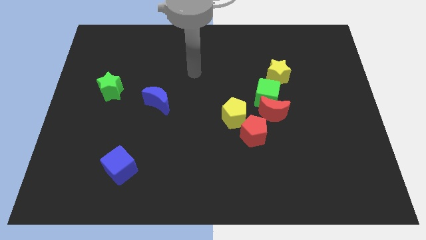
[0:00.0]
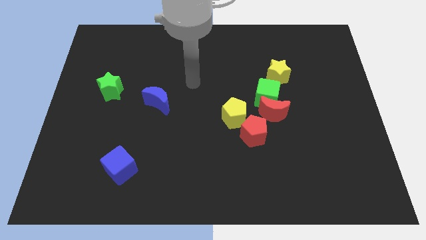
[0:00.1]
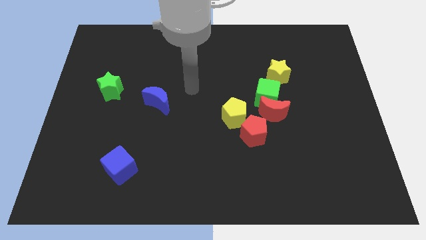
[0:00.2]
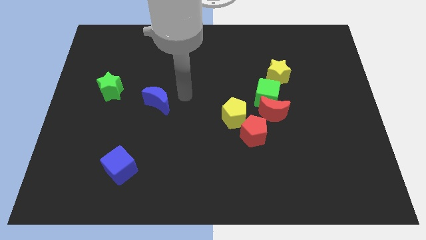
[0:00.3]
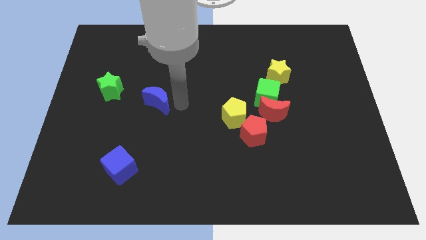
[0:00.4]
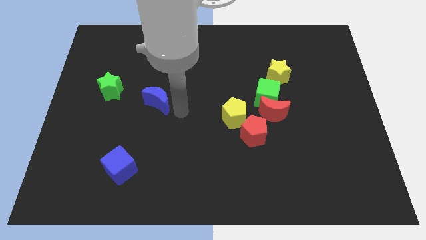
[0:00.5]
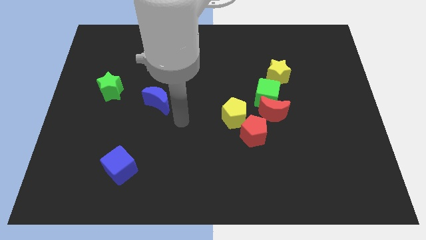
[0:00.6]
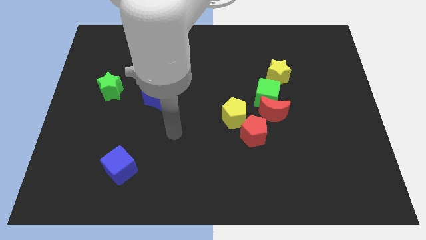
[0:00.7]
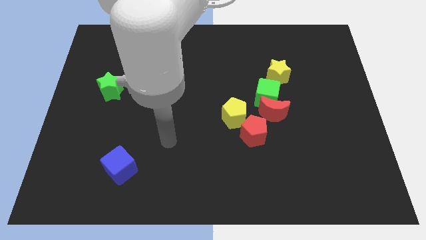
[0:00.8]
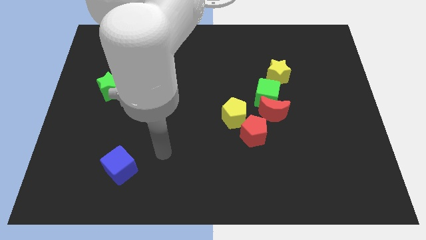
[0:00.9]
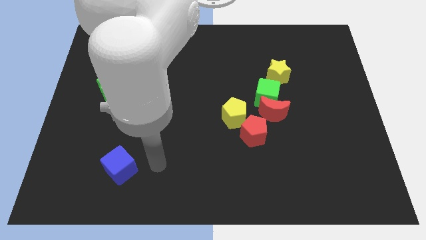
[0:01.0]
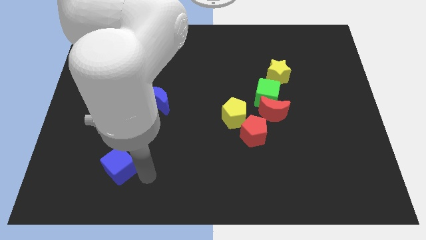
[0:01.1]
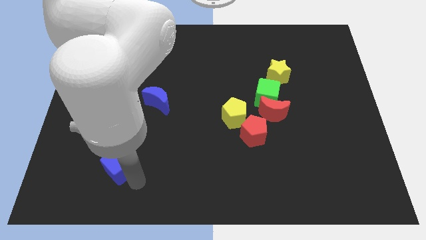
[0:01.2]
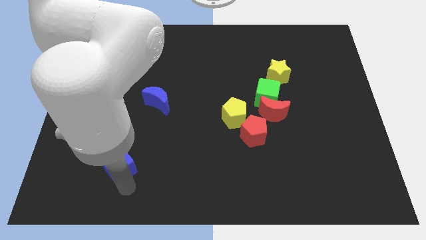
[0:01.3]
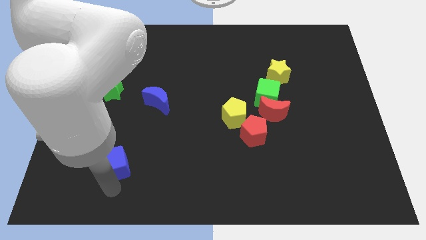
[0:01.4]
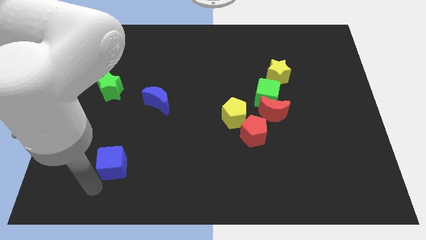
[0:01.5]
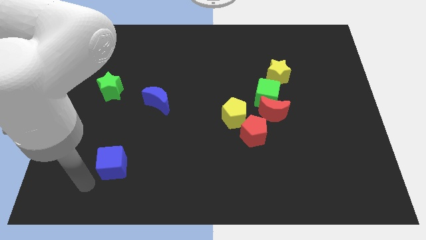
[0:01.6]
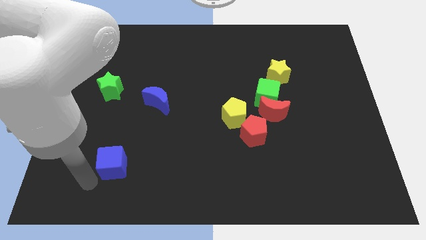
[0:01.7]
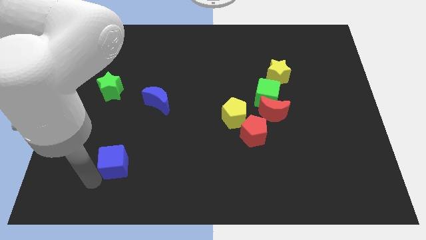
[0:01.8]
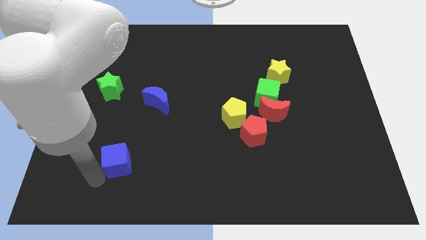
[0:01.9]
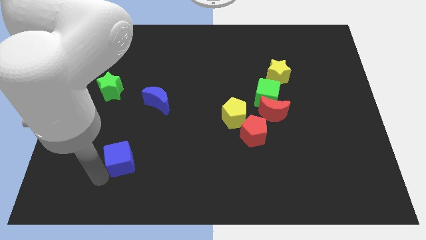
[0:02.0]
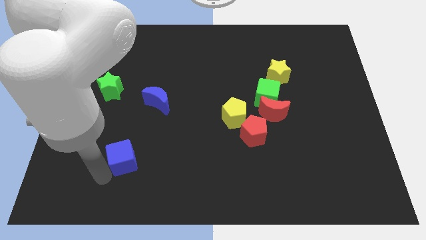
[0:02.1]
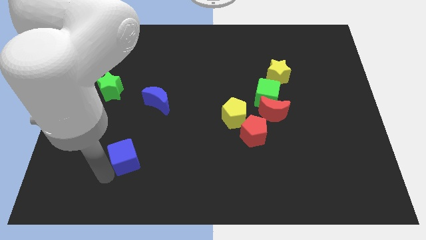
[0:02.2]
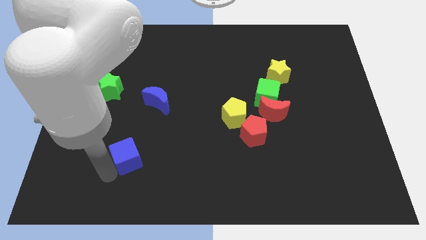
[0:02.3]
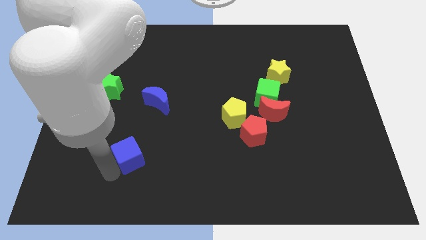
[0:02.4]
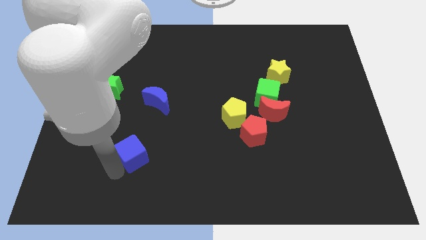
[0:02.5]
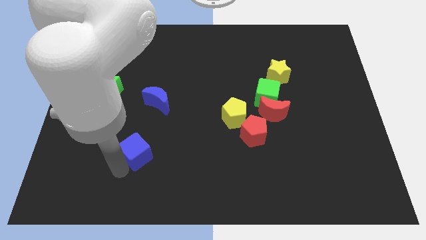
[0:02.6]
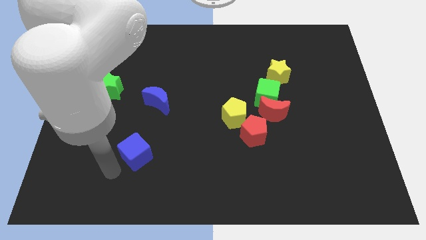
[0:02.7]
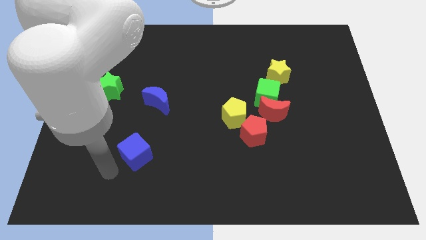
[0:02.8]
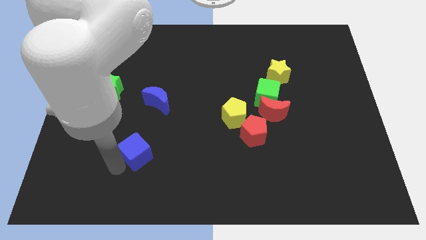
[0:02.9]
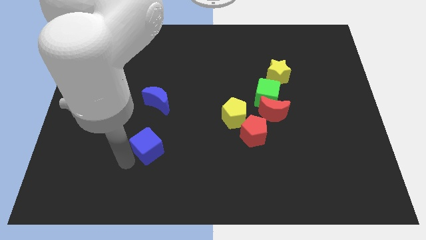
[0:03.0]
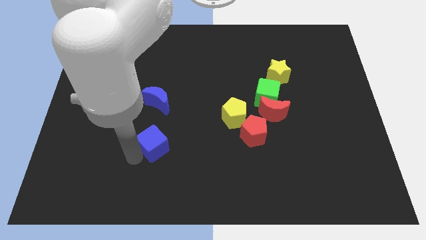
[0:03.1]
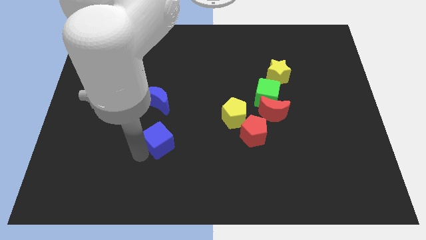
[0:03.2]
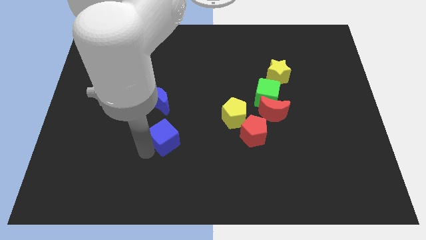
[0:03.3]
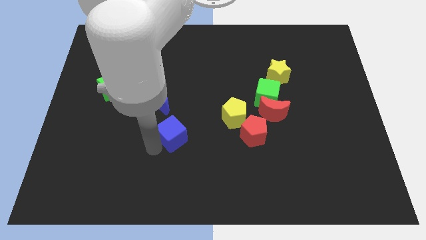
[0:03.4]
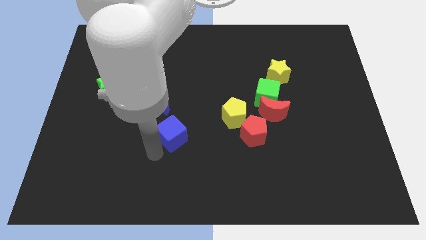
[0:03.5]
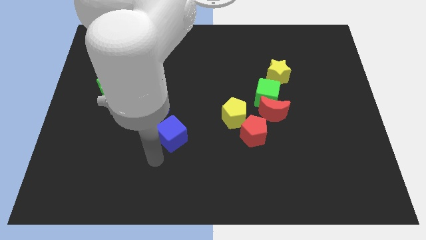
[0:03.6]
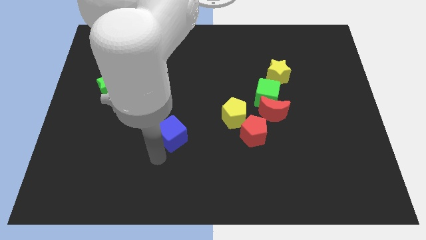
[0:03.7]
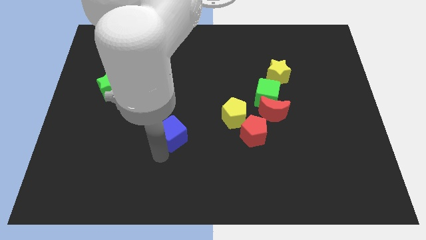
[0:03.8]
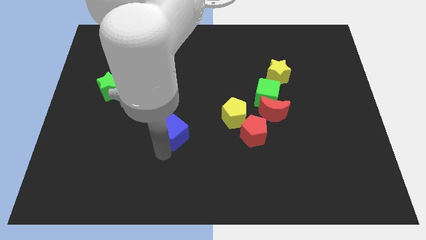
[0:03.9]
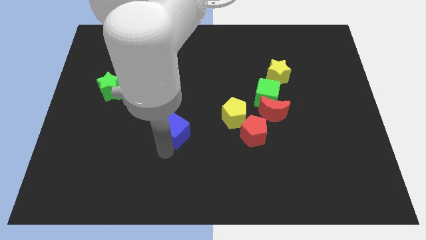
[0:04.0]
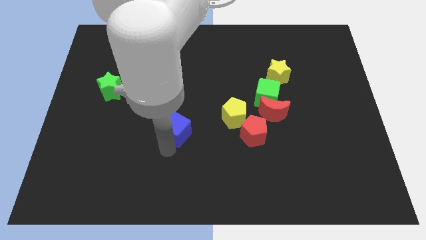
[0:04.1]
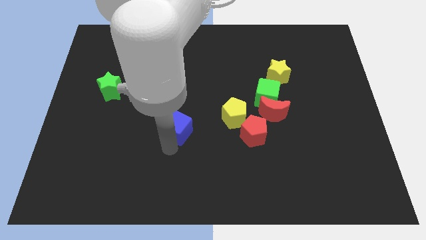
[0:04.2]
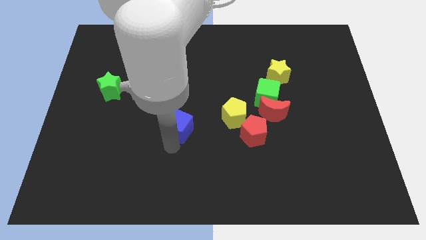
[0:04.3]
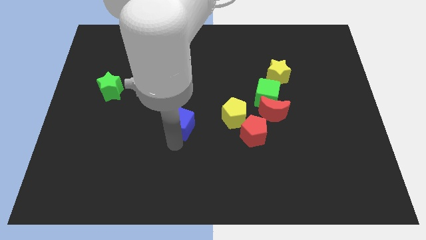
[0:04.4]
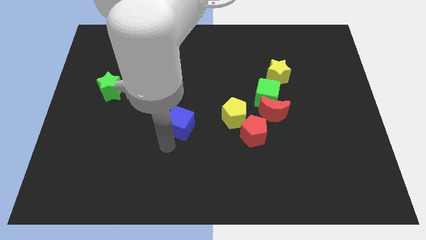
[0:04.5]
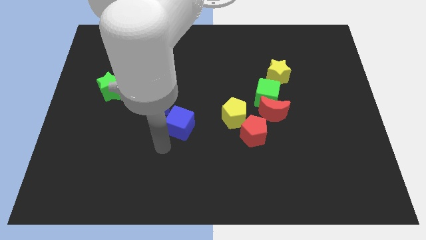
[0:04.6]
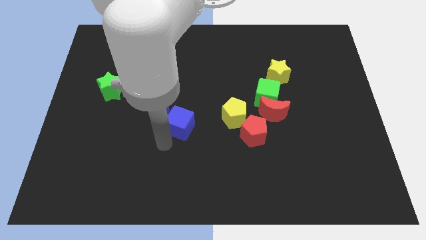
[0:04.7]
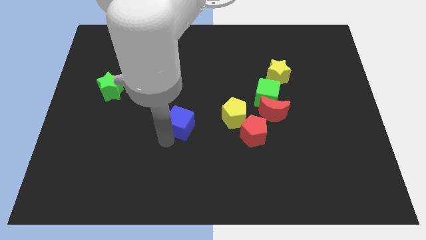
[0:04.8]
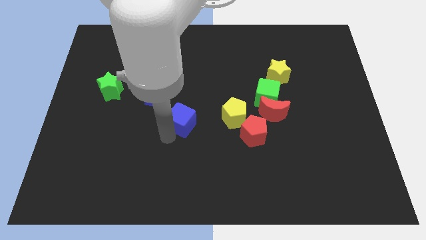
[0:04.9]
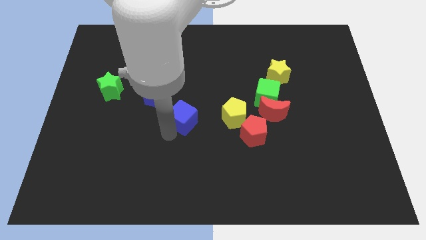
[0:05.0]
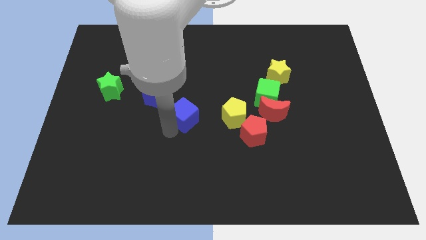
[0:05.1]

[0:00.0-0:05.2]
push the blue cube just right of the blue moon

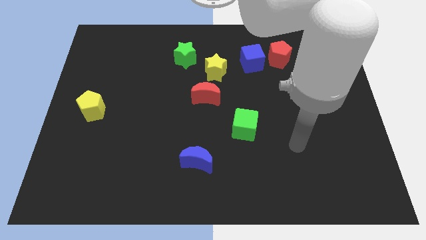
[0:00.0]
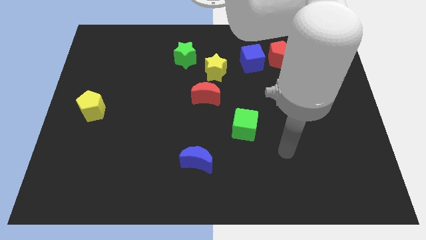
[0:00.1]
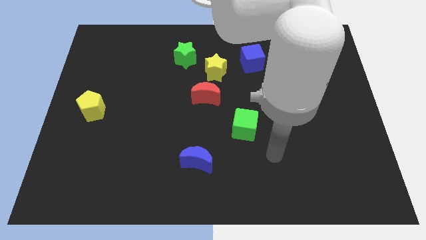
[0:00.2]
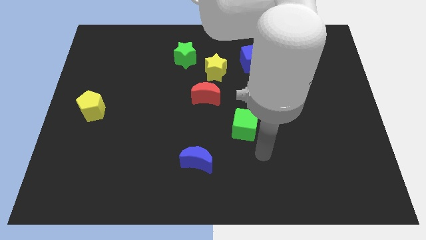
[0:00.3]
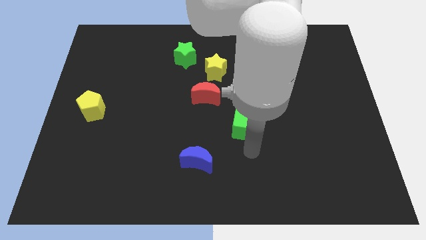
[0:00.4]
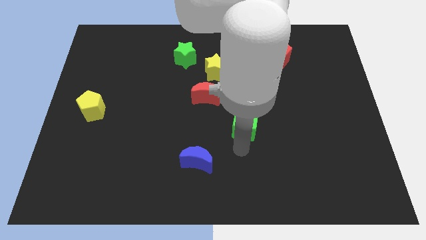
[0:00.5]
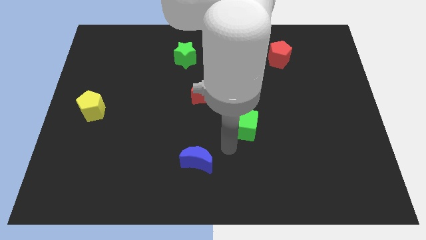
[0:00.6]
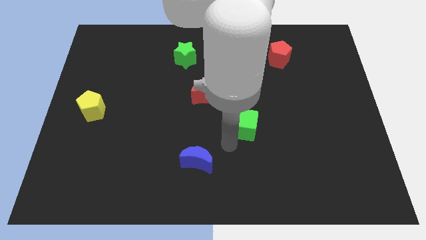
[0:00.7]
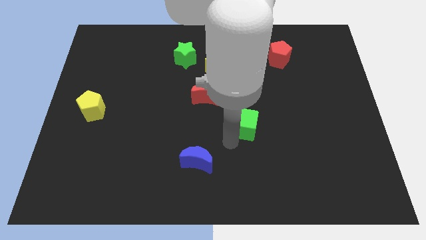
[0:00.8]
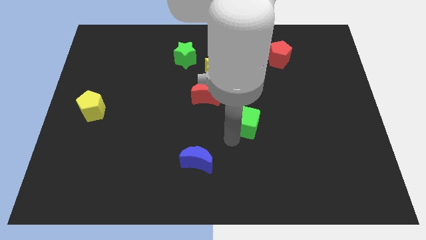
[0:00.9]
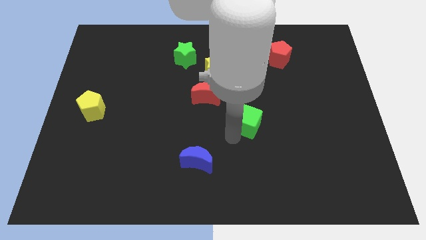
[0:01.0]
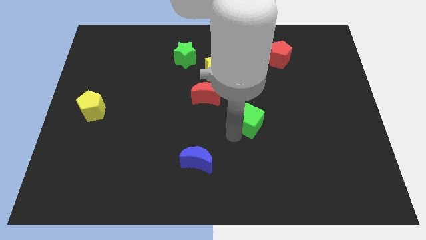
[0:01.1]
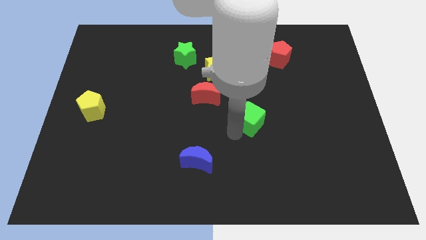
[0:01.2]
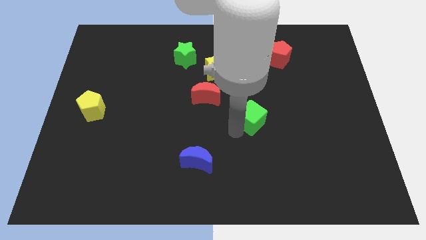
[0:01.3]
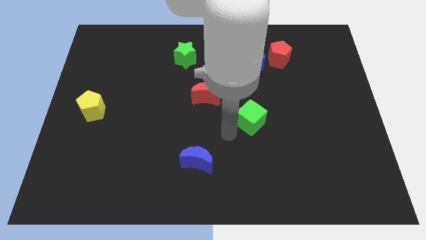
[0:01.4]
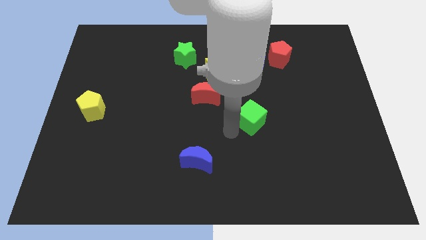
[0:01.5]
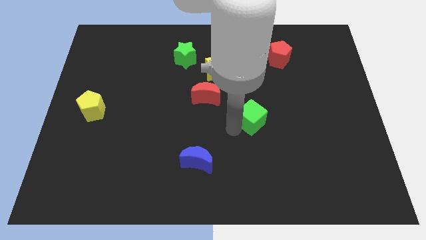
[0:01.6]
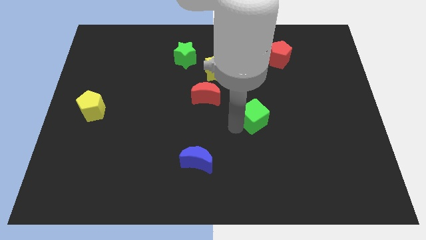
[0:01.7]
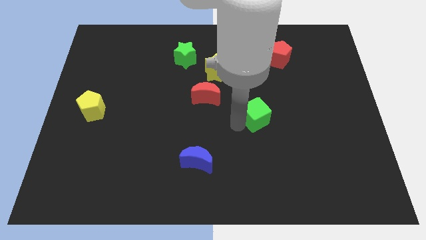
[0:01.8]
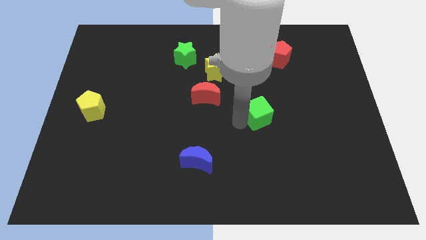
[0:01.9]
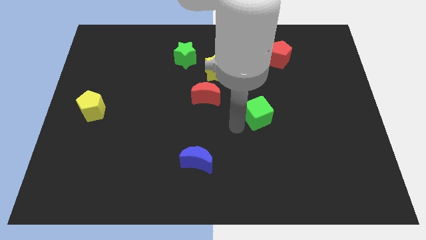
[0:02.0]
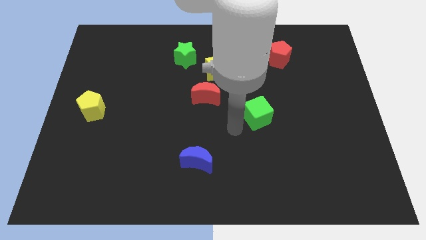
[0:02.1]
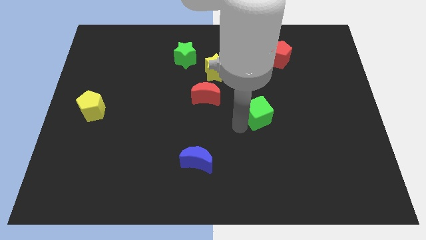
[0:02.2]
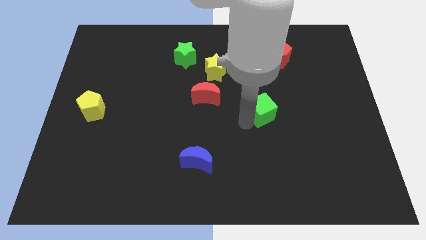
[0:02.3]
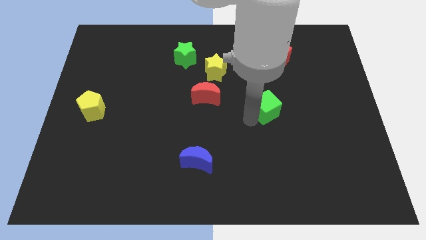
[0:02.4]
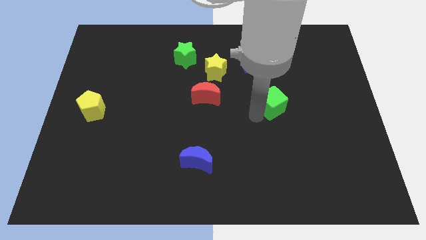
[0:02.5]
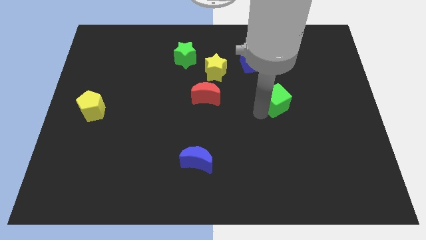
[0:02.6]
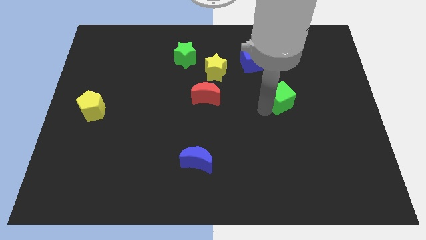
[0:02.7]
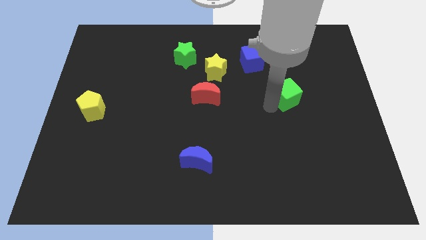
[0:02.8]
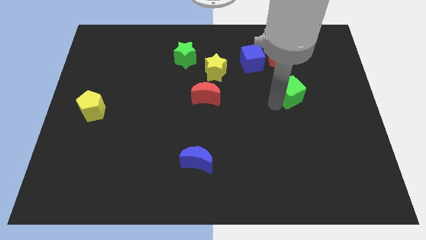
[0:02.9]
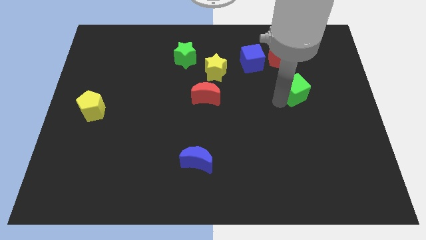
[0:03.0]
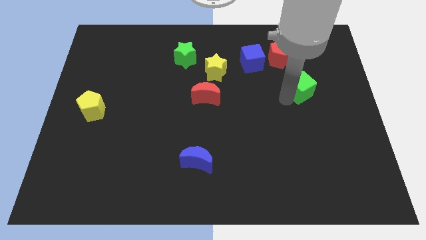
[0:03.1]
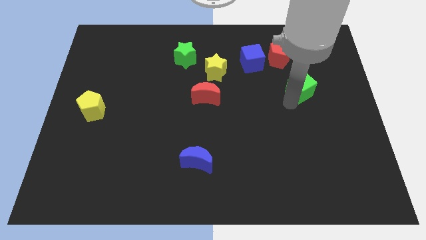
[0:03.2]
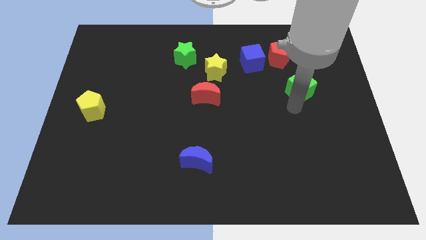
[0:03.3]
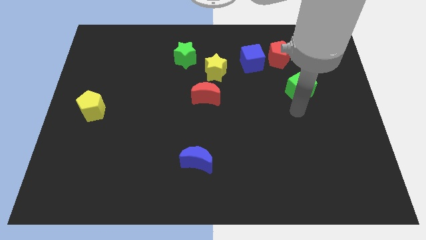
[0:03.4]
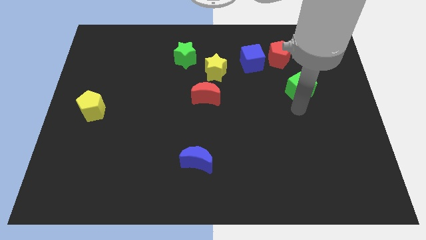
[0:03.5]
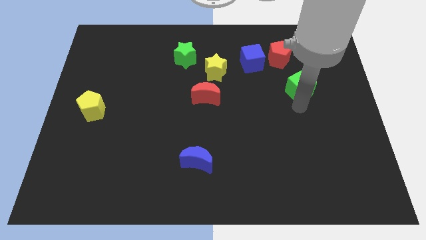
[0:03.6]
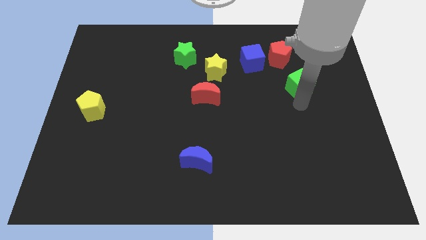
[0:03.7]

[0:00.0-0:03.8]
slide the green cube to the bottom right side of the red pentagon
